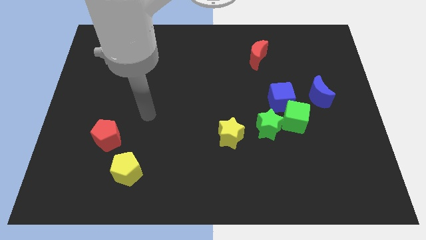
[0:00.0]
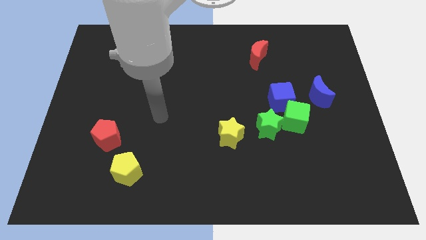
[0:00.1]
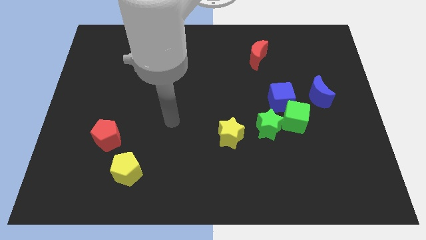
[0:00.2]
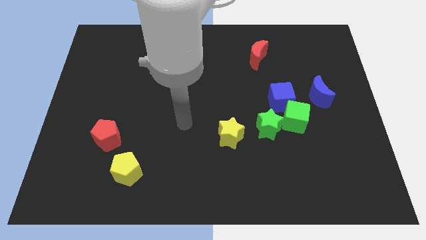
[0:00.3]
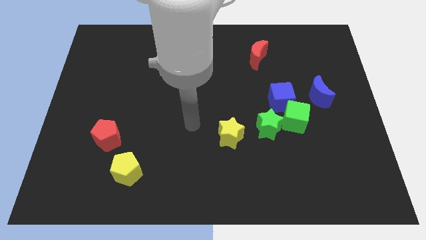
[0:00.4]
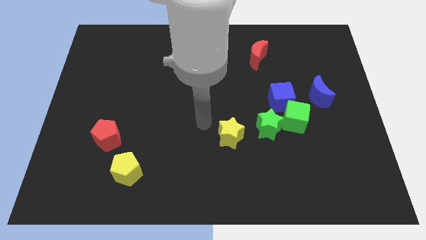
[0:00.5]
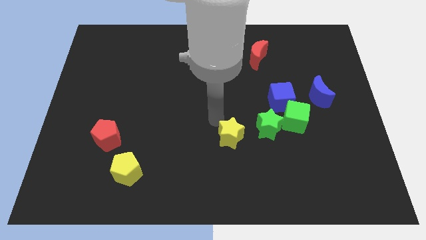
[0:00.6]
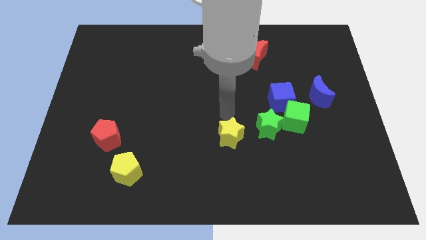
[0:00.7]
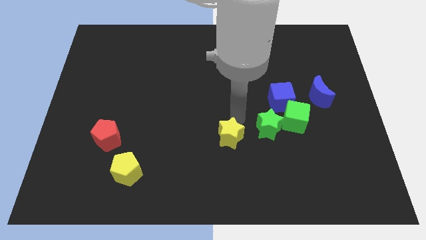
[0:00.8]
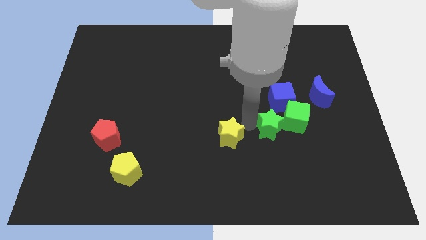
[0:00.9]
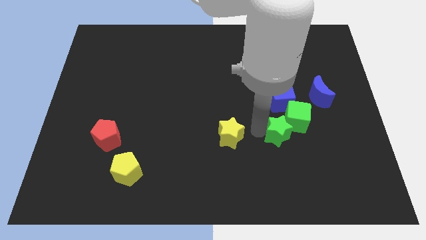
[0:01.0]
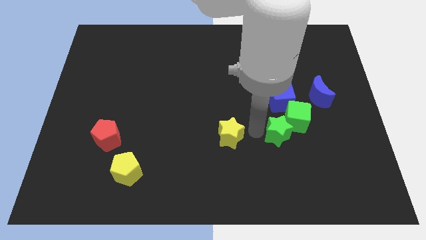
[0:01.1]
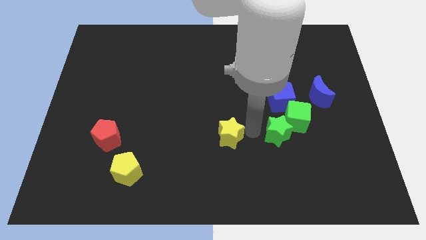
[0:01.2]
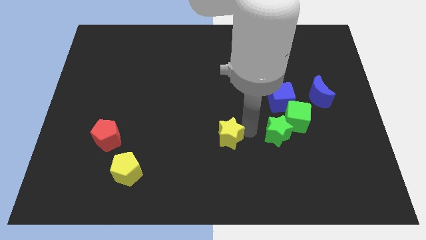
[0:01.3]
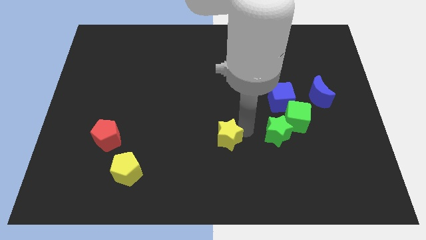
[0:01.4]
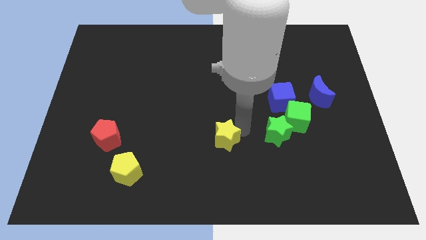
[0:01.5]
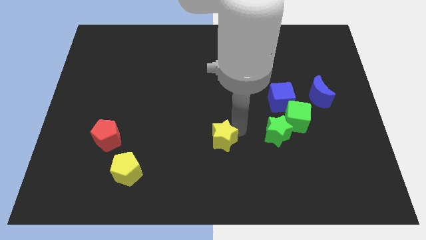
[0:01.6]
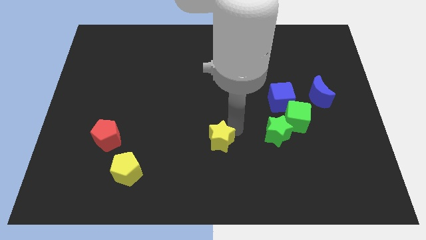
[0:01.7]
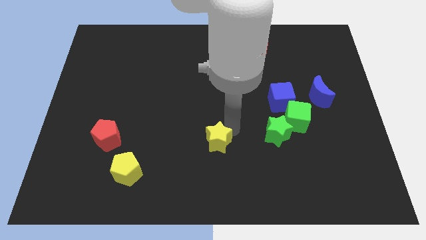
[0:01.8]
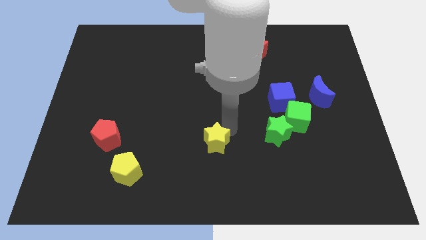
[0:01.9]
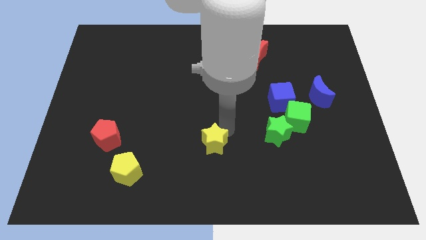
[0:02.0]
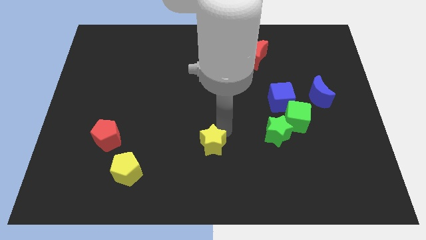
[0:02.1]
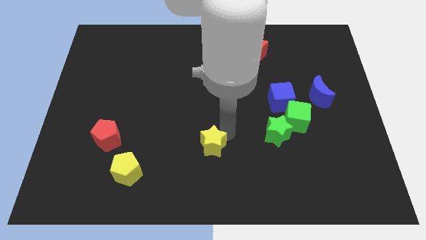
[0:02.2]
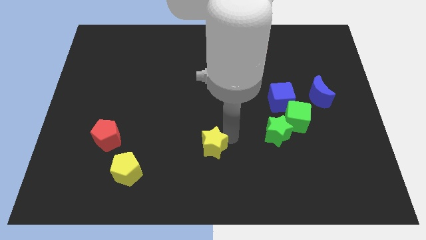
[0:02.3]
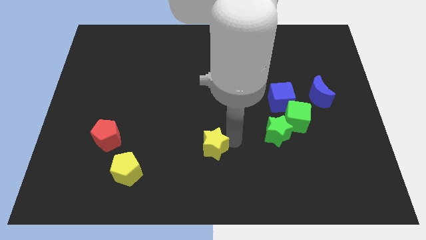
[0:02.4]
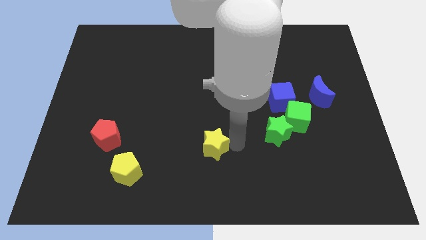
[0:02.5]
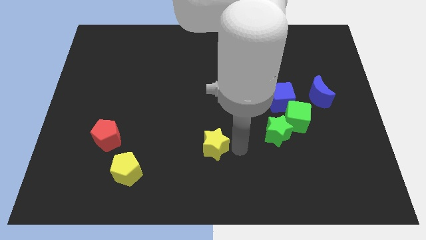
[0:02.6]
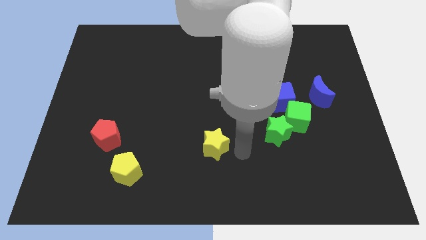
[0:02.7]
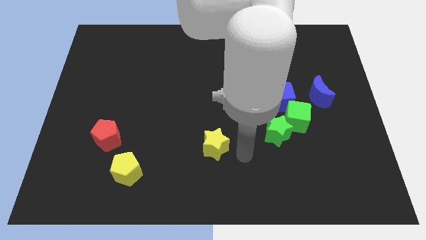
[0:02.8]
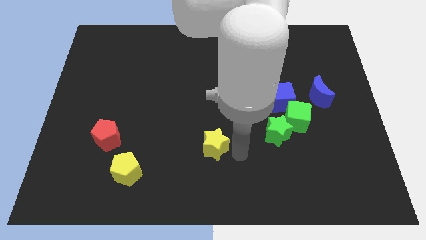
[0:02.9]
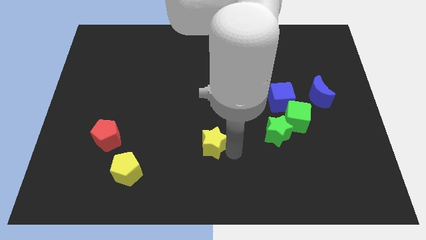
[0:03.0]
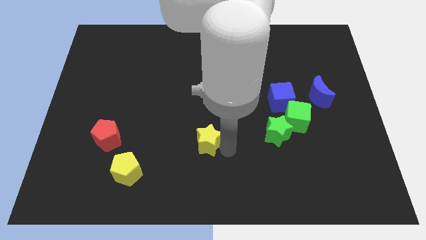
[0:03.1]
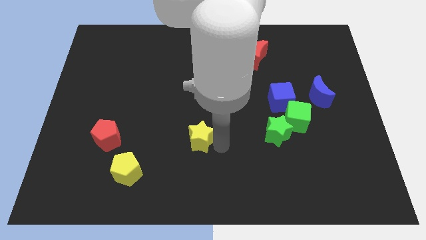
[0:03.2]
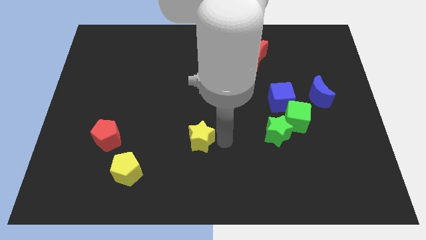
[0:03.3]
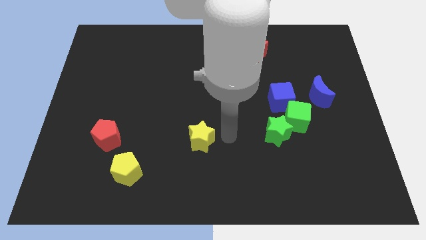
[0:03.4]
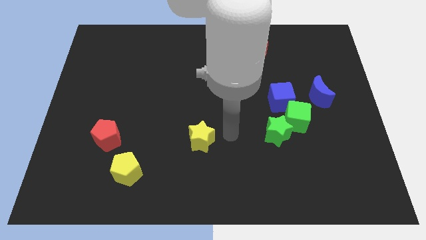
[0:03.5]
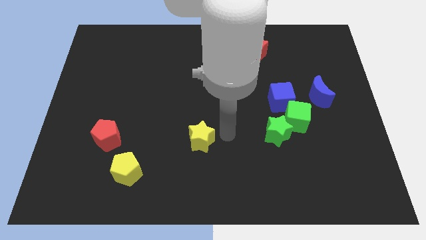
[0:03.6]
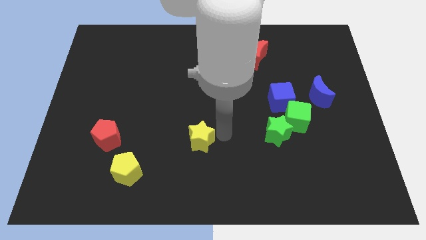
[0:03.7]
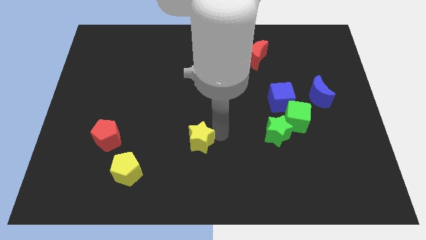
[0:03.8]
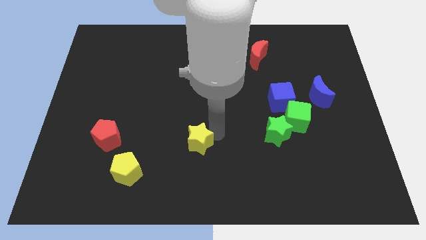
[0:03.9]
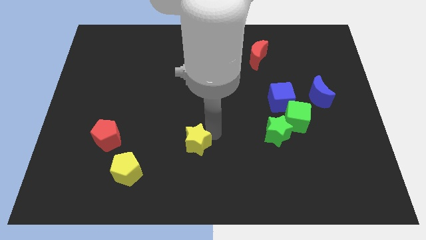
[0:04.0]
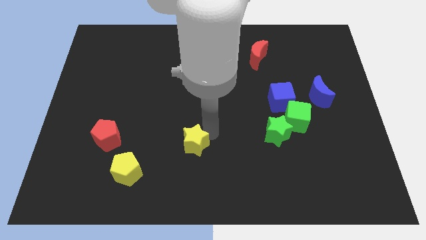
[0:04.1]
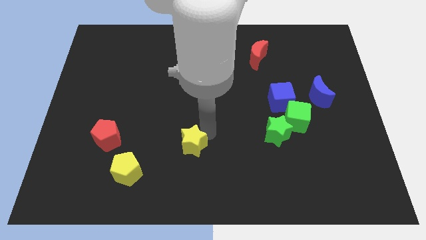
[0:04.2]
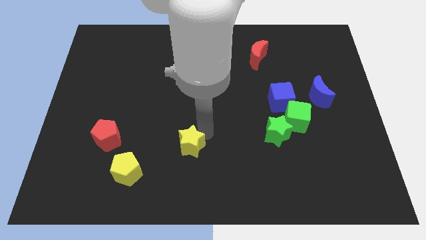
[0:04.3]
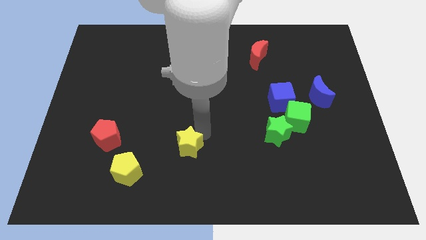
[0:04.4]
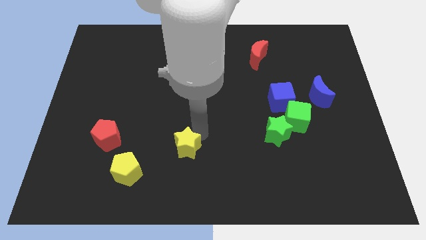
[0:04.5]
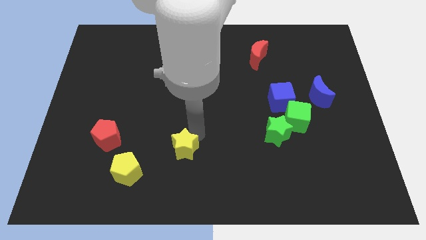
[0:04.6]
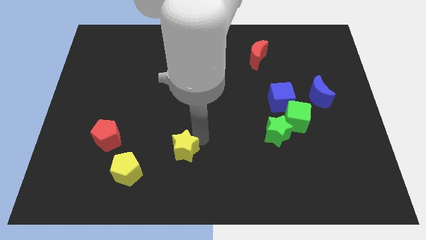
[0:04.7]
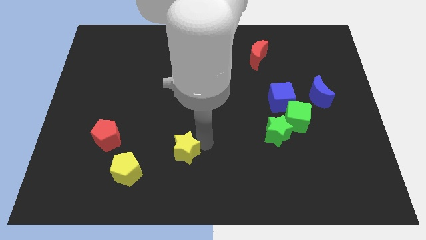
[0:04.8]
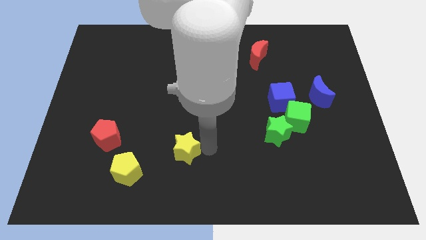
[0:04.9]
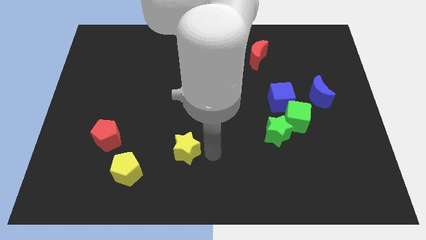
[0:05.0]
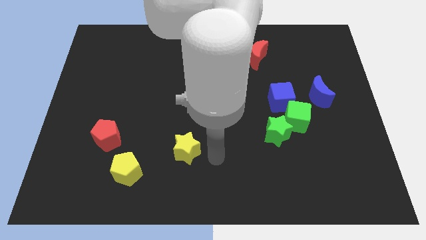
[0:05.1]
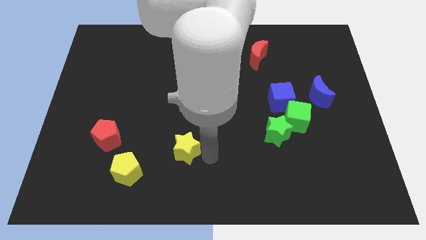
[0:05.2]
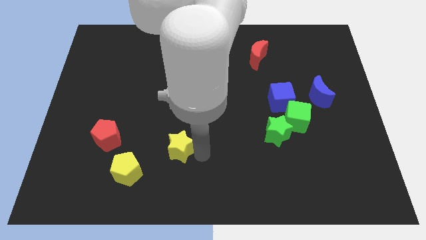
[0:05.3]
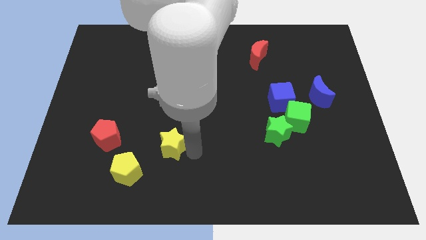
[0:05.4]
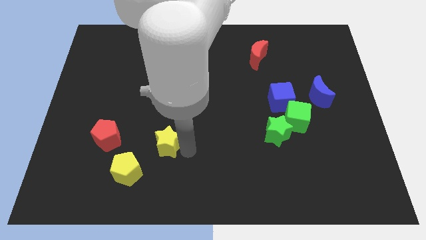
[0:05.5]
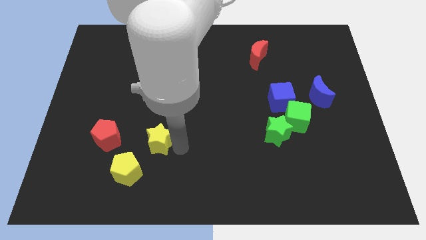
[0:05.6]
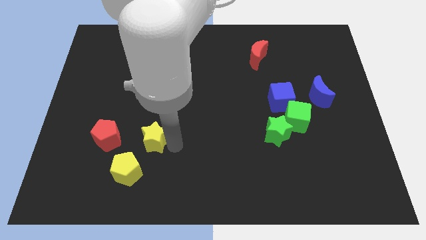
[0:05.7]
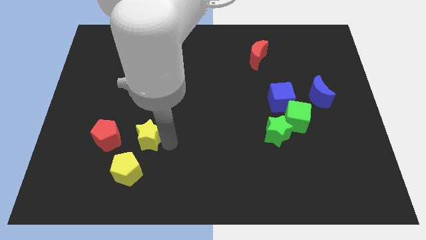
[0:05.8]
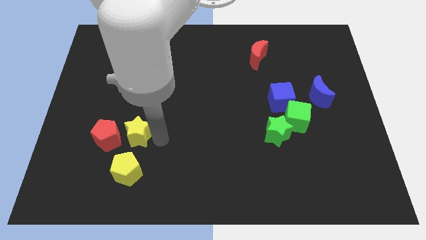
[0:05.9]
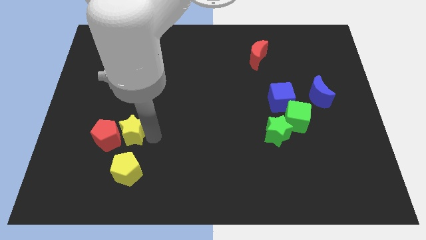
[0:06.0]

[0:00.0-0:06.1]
push the yellow star towards the red pentagon

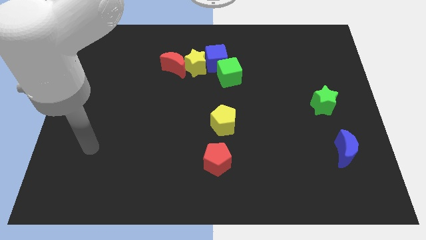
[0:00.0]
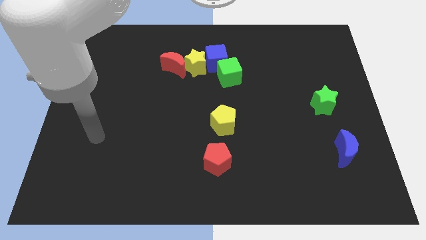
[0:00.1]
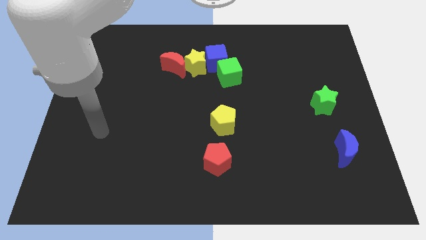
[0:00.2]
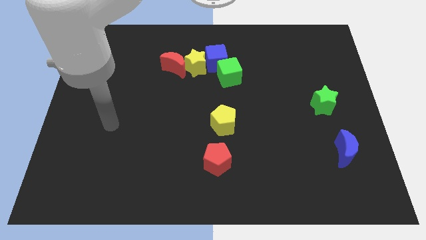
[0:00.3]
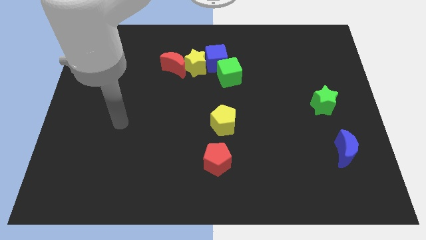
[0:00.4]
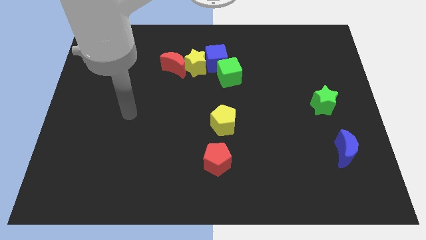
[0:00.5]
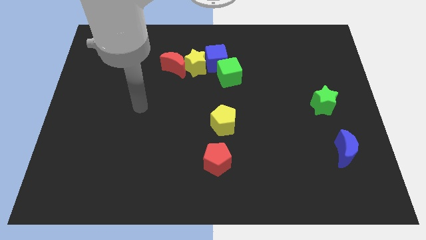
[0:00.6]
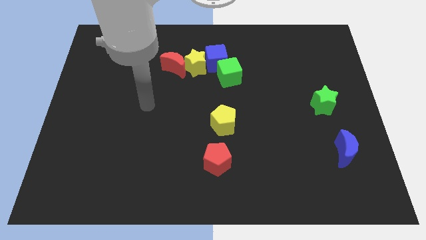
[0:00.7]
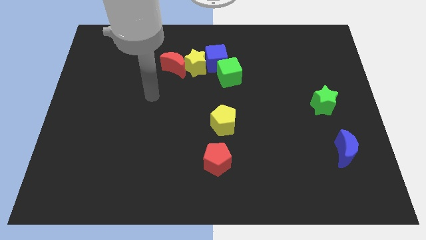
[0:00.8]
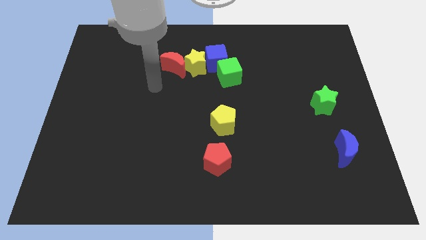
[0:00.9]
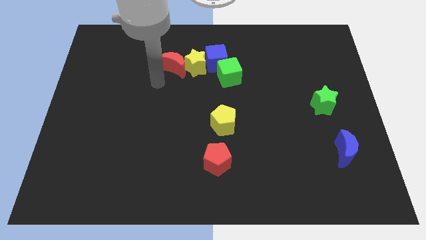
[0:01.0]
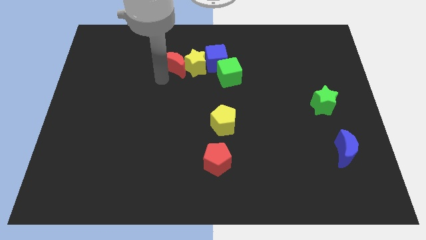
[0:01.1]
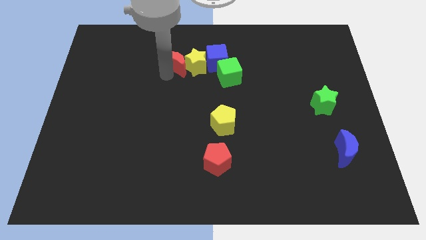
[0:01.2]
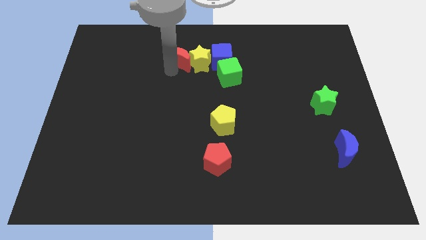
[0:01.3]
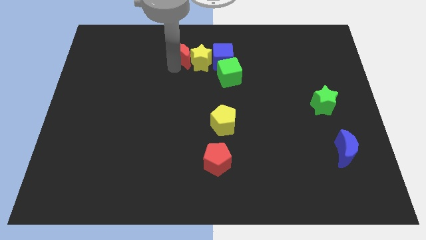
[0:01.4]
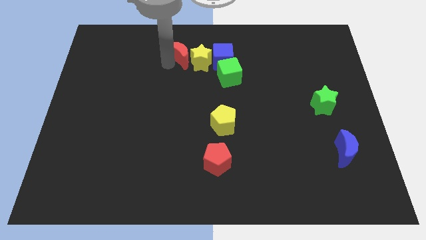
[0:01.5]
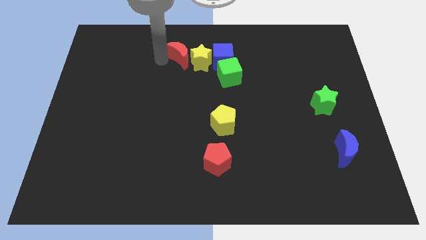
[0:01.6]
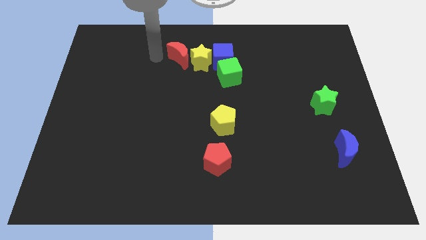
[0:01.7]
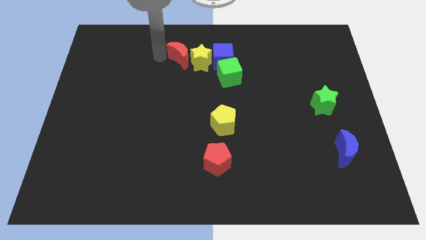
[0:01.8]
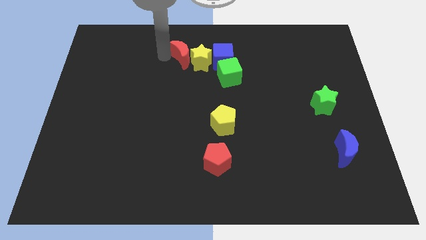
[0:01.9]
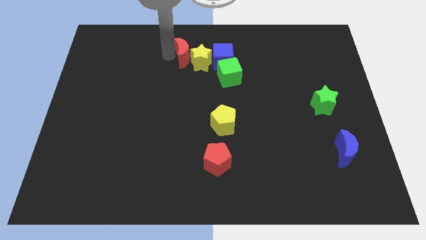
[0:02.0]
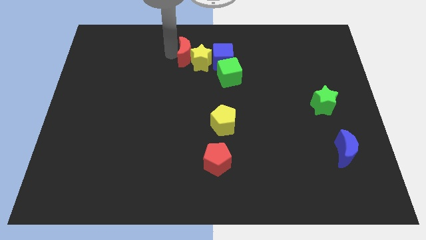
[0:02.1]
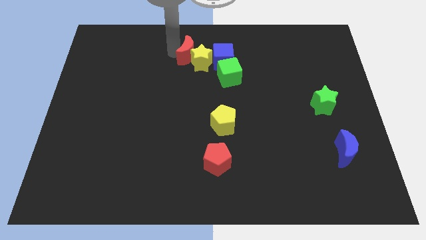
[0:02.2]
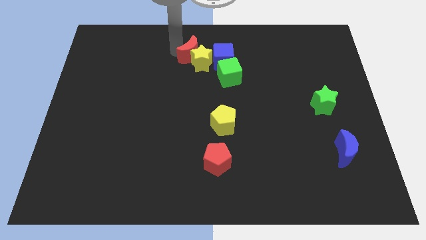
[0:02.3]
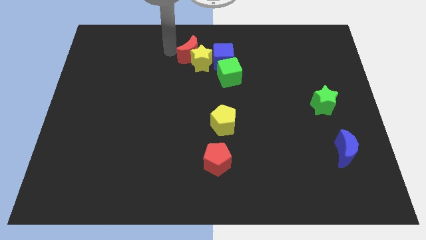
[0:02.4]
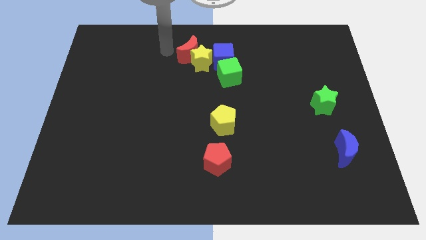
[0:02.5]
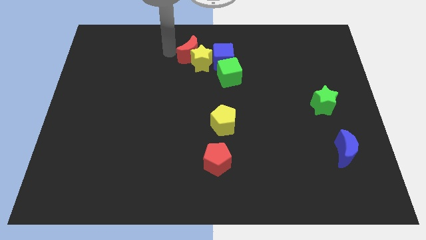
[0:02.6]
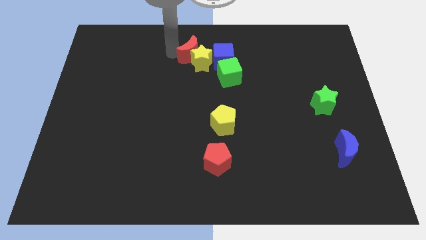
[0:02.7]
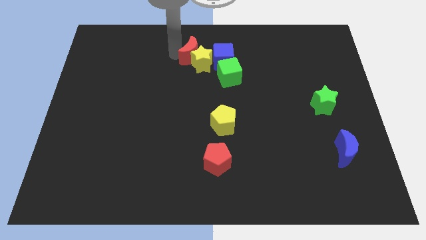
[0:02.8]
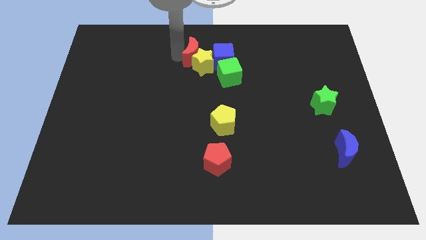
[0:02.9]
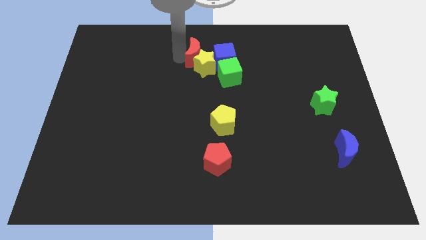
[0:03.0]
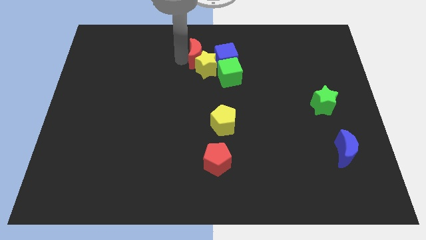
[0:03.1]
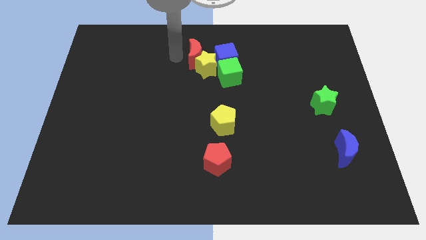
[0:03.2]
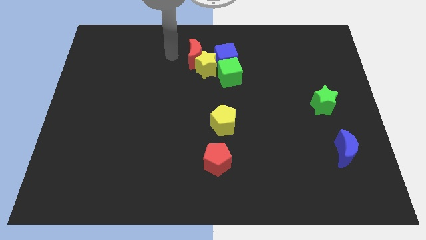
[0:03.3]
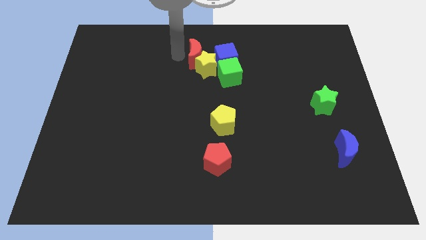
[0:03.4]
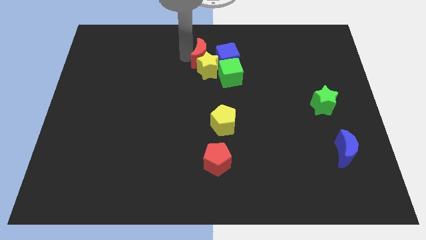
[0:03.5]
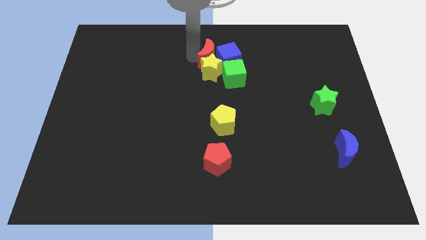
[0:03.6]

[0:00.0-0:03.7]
move the red moon close to the blue cube
